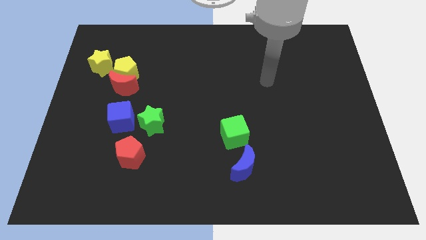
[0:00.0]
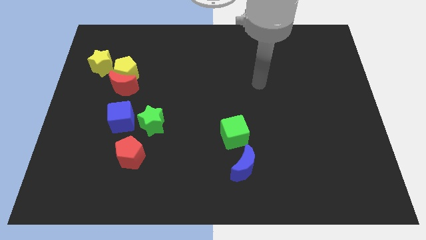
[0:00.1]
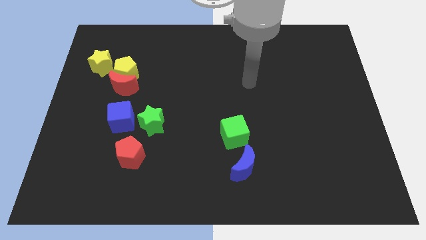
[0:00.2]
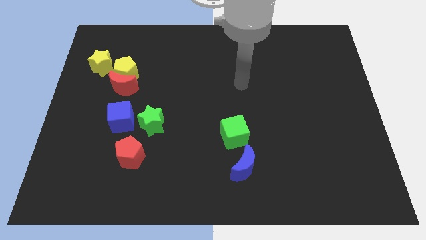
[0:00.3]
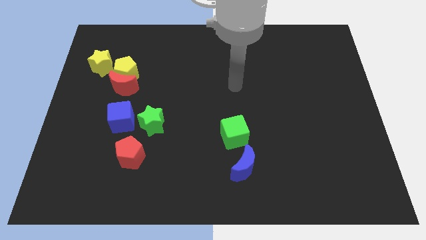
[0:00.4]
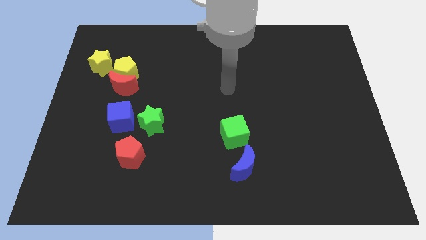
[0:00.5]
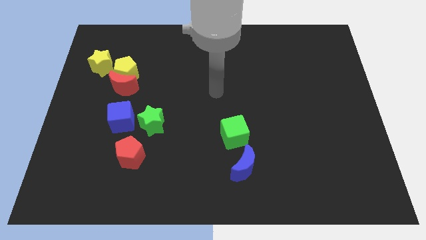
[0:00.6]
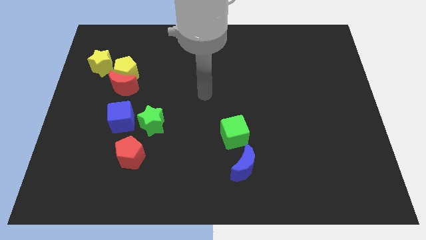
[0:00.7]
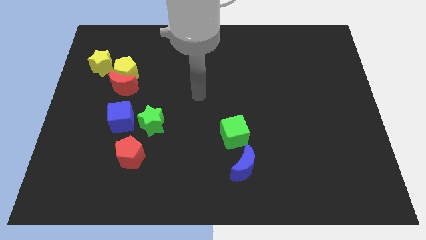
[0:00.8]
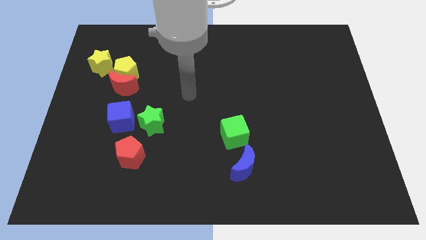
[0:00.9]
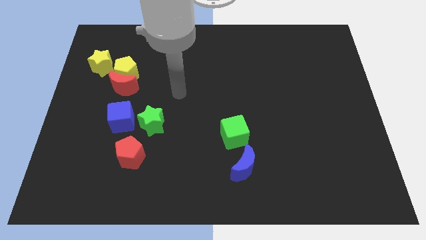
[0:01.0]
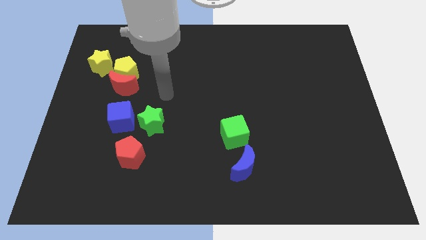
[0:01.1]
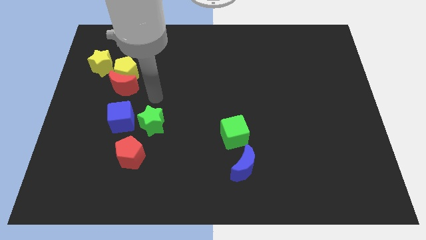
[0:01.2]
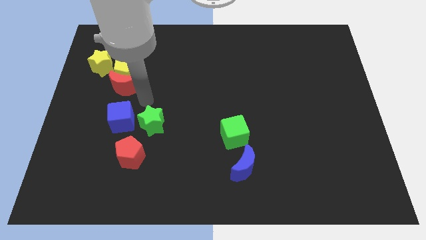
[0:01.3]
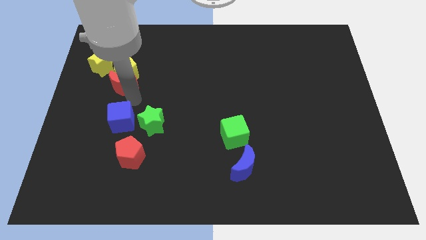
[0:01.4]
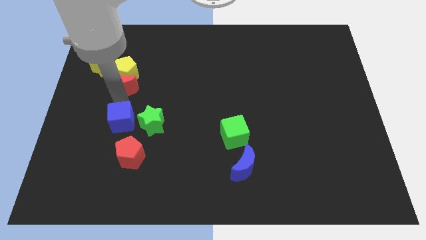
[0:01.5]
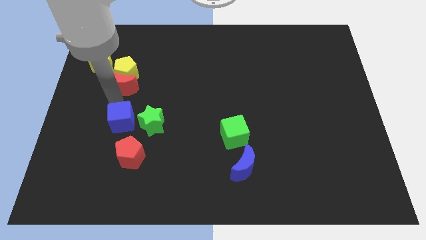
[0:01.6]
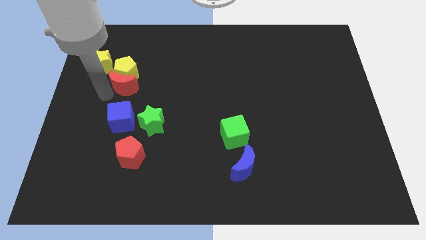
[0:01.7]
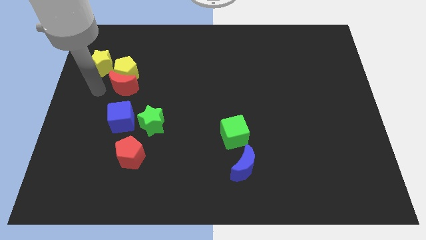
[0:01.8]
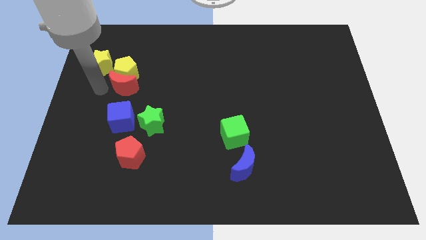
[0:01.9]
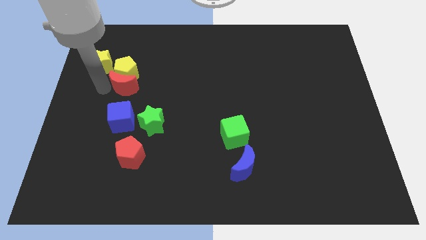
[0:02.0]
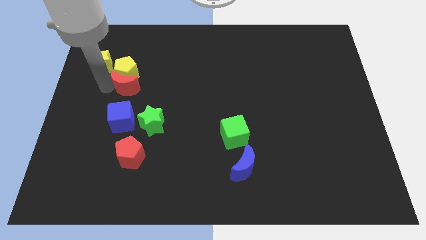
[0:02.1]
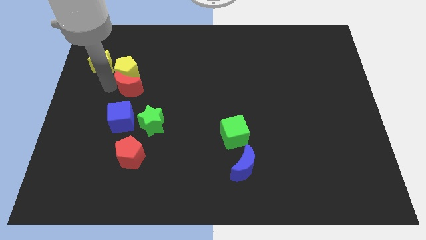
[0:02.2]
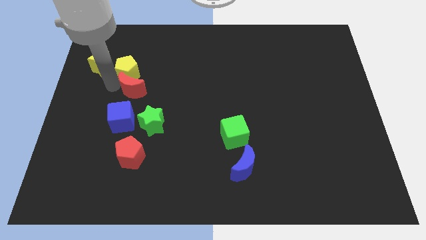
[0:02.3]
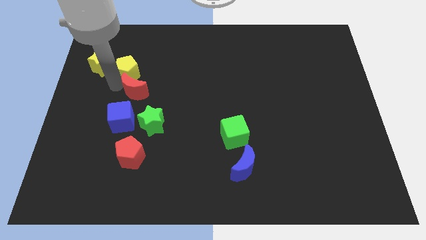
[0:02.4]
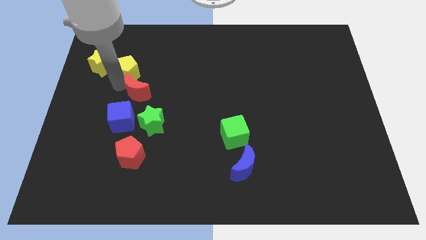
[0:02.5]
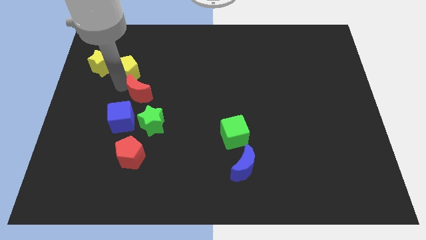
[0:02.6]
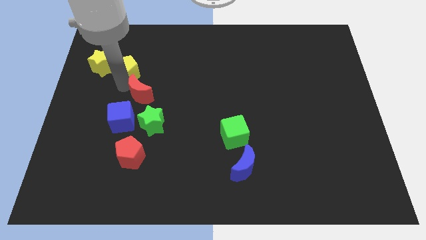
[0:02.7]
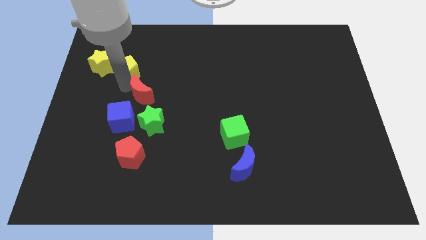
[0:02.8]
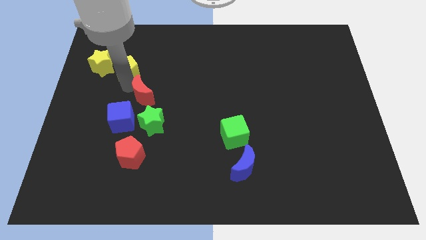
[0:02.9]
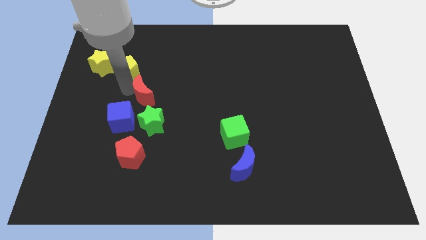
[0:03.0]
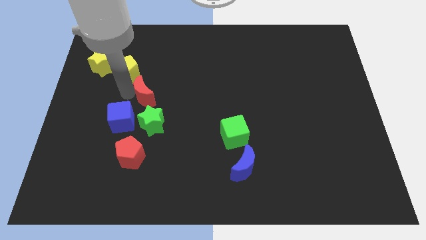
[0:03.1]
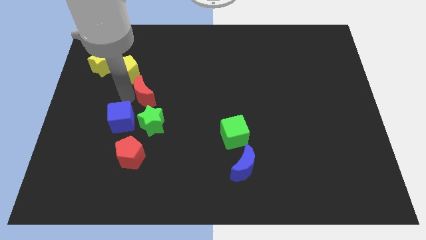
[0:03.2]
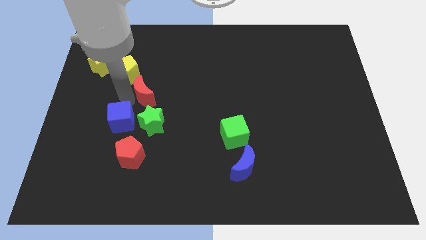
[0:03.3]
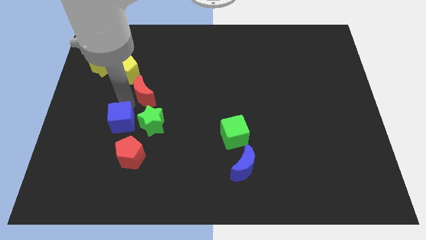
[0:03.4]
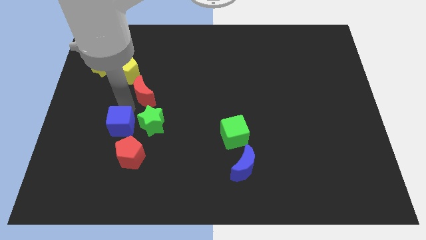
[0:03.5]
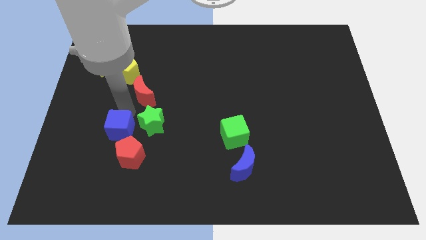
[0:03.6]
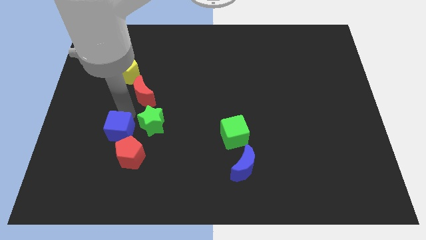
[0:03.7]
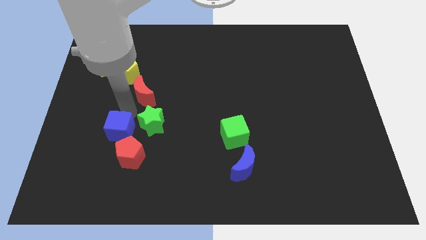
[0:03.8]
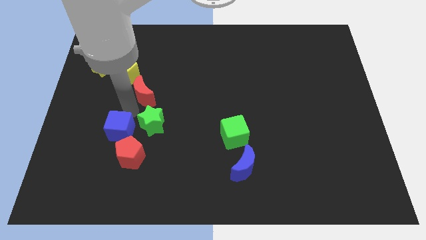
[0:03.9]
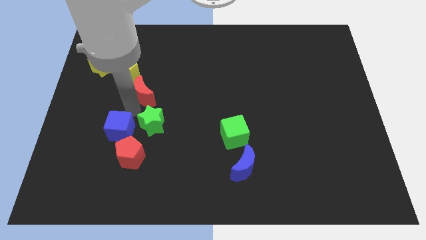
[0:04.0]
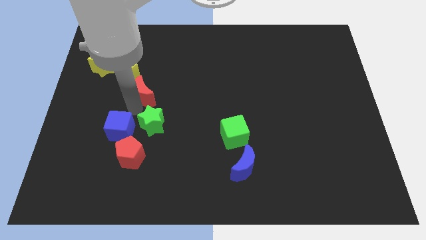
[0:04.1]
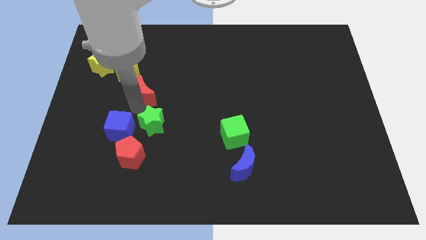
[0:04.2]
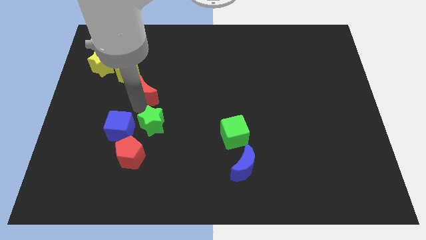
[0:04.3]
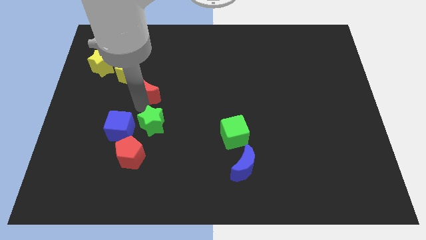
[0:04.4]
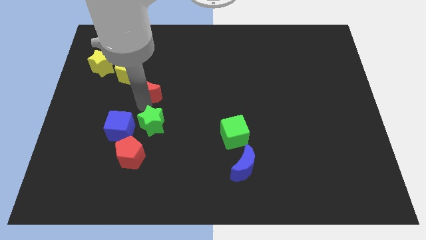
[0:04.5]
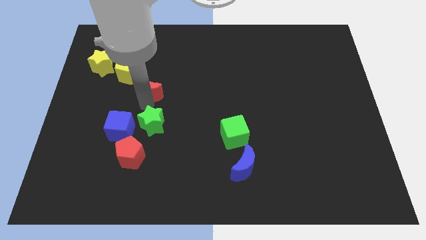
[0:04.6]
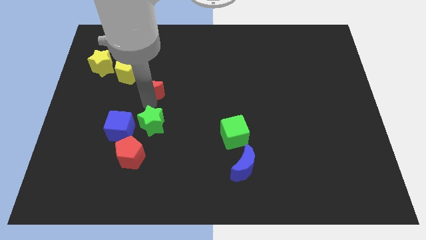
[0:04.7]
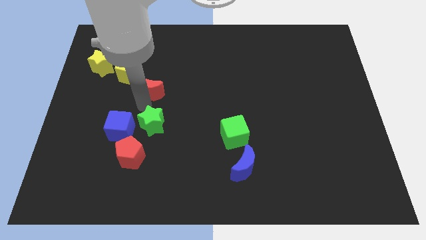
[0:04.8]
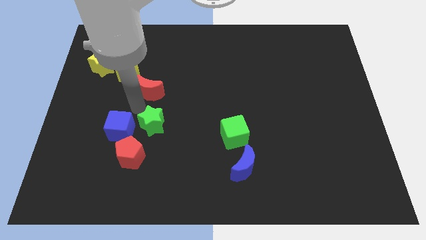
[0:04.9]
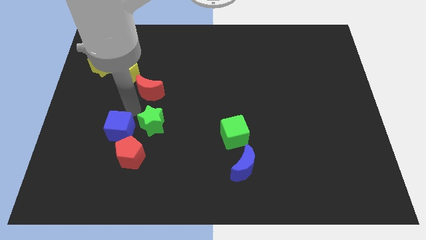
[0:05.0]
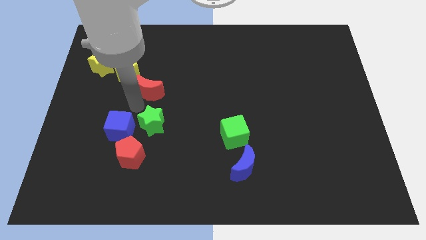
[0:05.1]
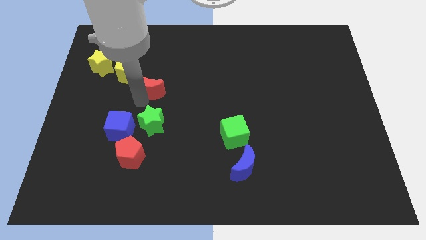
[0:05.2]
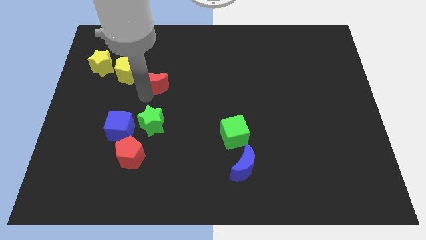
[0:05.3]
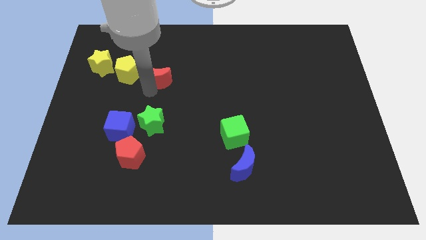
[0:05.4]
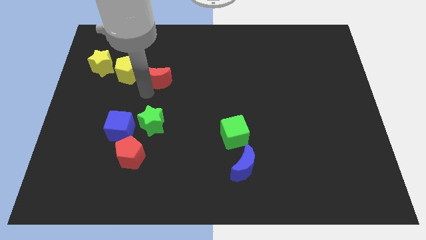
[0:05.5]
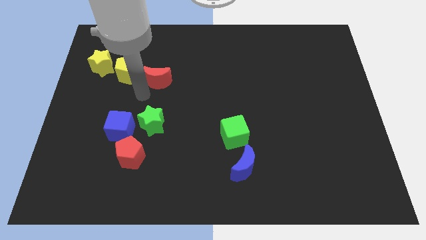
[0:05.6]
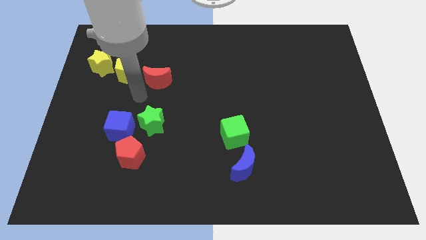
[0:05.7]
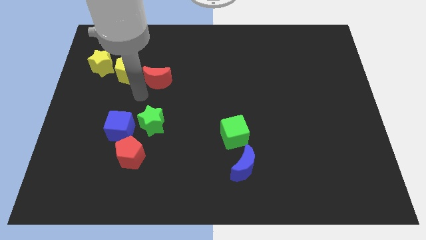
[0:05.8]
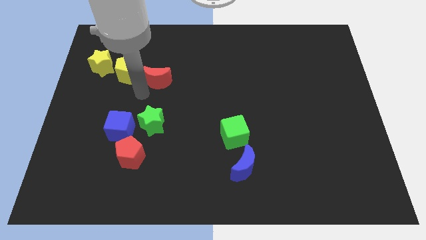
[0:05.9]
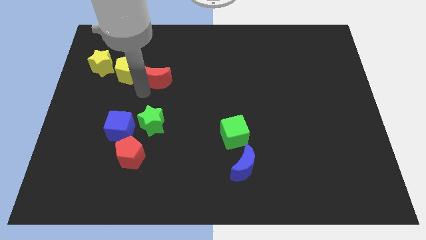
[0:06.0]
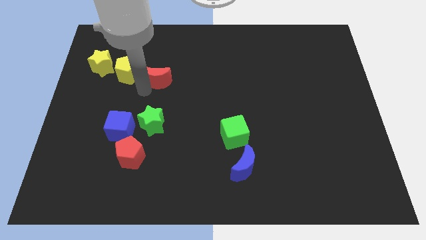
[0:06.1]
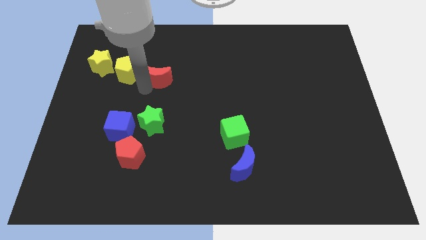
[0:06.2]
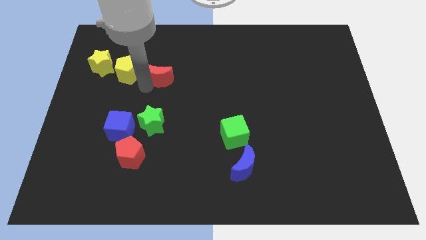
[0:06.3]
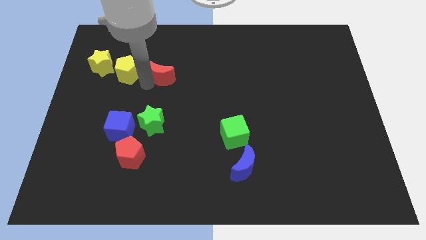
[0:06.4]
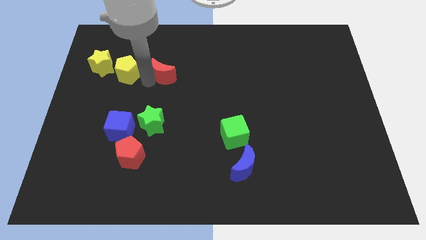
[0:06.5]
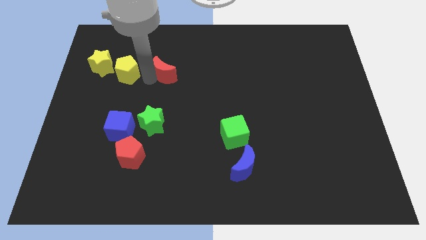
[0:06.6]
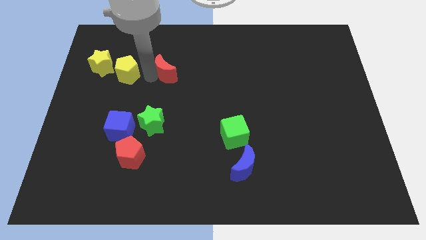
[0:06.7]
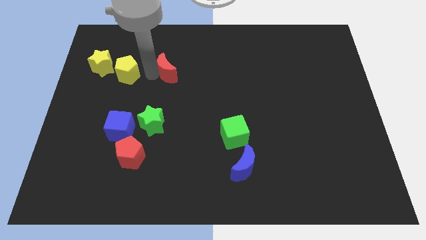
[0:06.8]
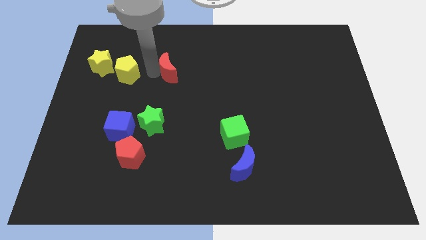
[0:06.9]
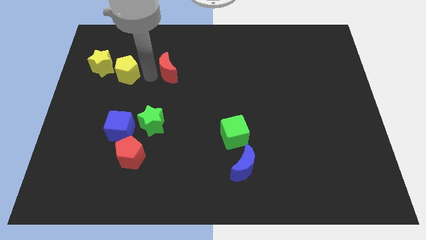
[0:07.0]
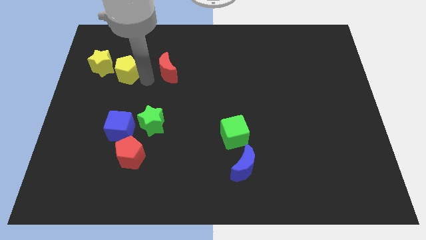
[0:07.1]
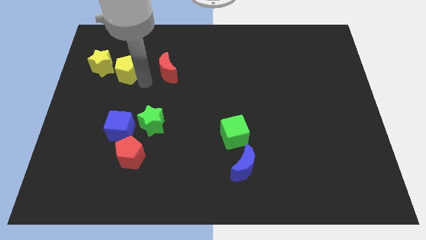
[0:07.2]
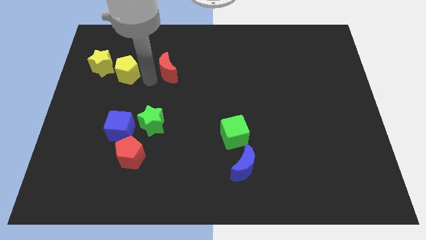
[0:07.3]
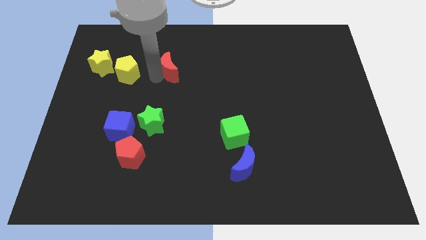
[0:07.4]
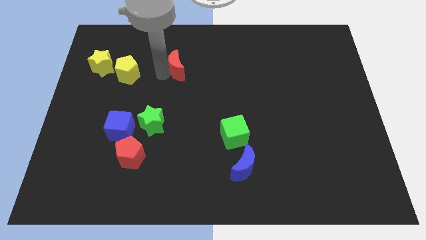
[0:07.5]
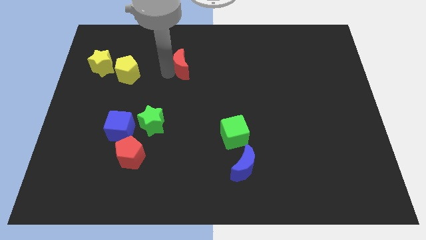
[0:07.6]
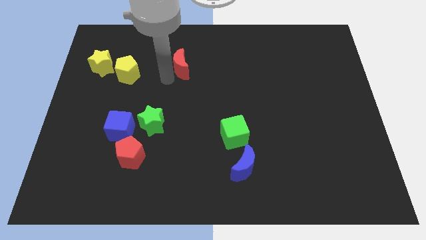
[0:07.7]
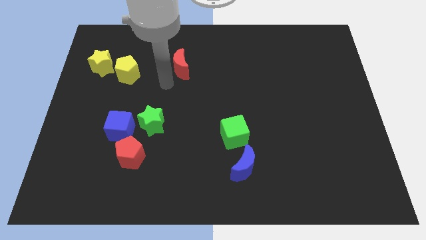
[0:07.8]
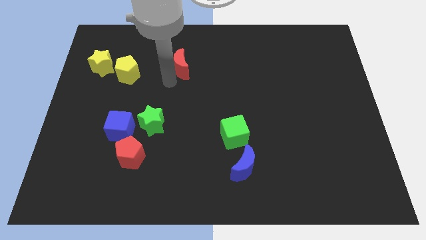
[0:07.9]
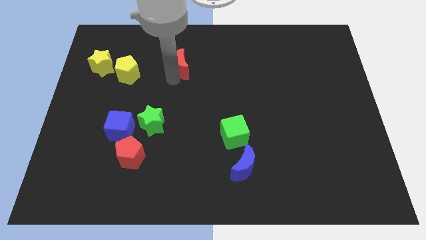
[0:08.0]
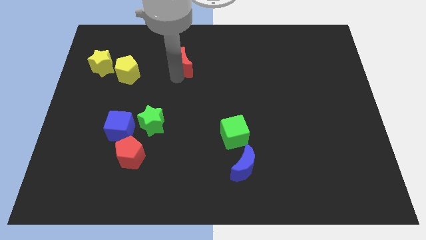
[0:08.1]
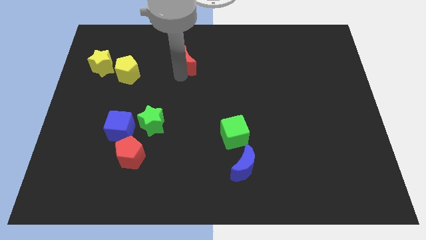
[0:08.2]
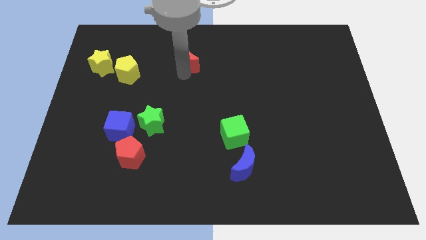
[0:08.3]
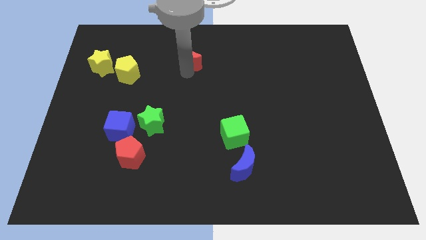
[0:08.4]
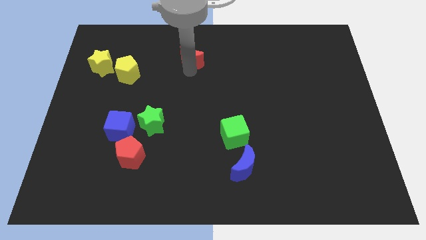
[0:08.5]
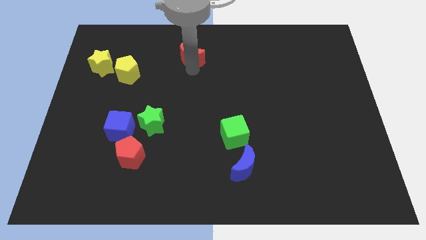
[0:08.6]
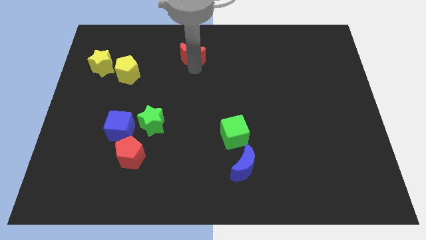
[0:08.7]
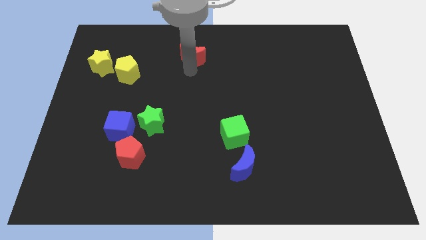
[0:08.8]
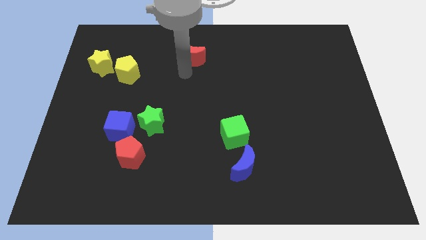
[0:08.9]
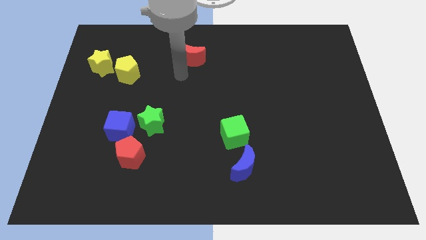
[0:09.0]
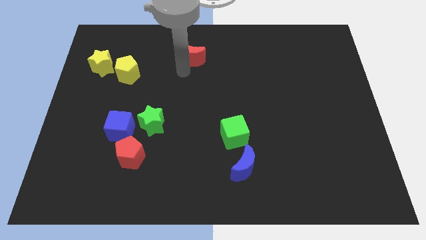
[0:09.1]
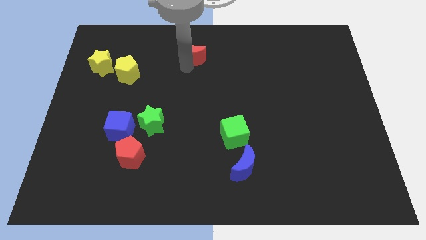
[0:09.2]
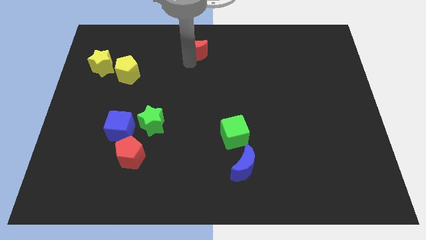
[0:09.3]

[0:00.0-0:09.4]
move the red moon to the top side
